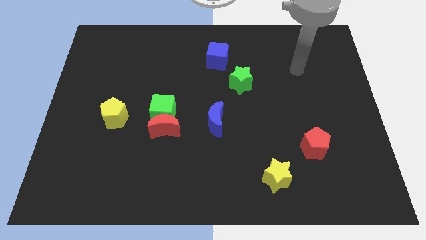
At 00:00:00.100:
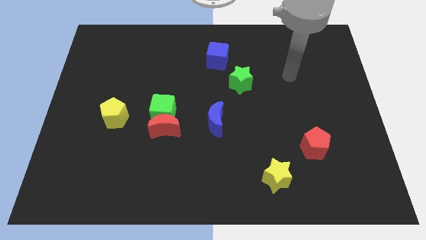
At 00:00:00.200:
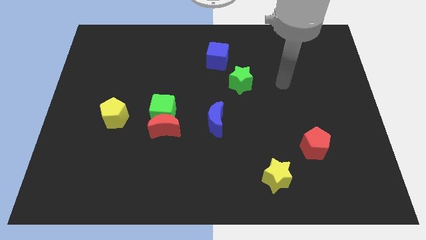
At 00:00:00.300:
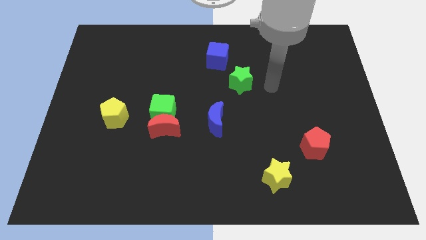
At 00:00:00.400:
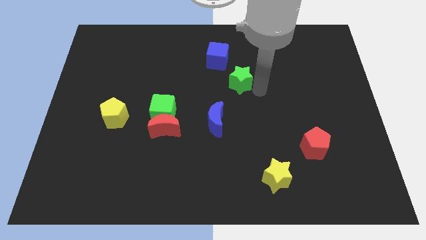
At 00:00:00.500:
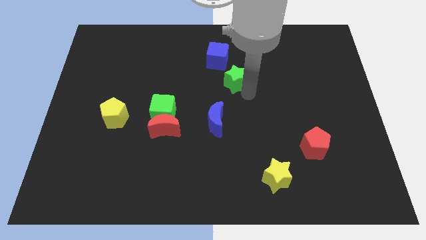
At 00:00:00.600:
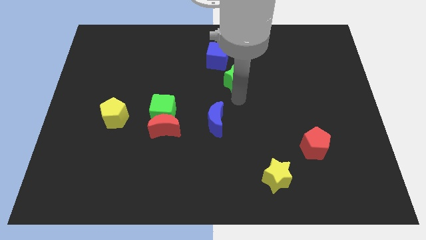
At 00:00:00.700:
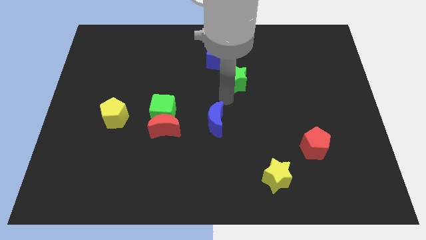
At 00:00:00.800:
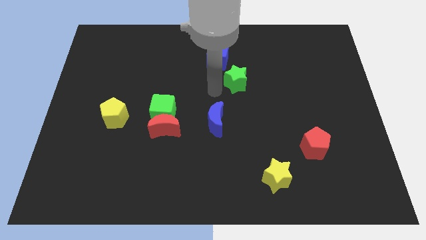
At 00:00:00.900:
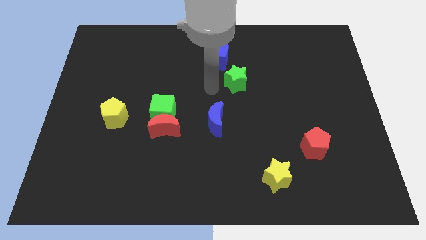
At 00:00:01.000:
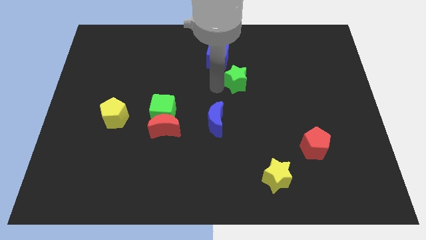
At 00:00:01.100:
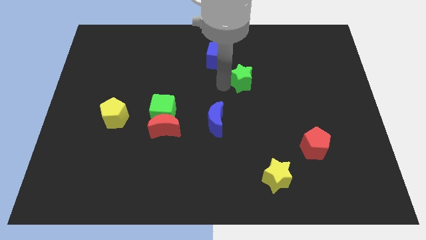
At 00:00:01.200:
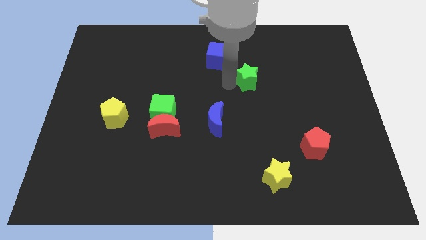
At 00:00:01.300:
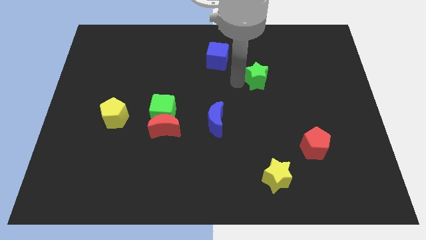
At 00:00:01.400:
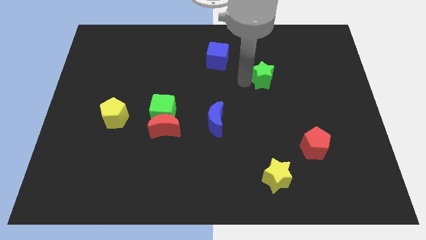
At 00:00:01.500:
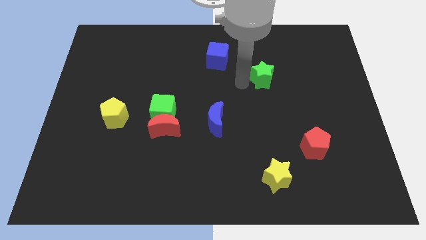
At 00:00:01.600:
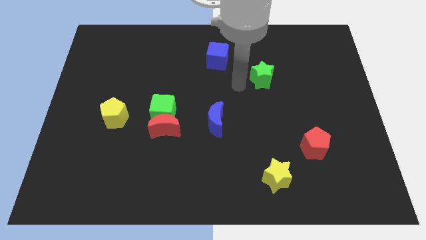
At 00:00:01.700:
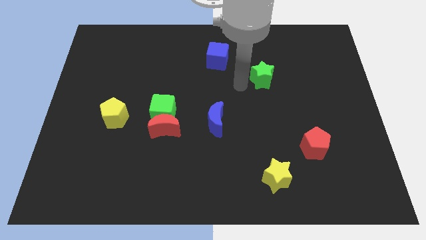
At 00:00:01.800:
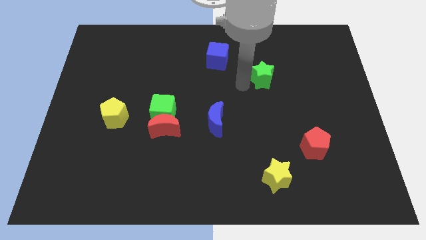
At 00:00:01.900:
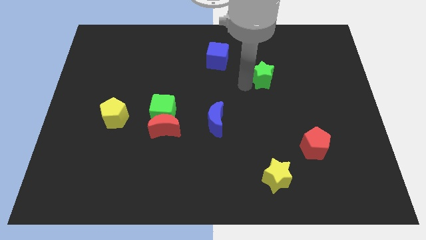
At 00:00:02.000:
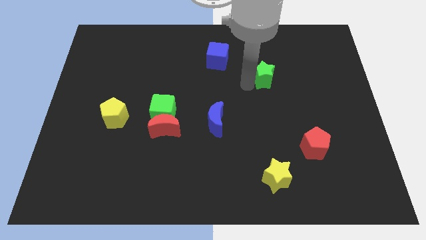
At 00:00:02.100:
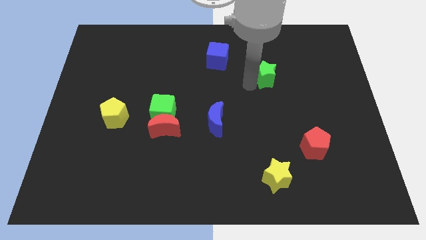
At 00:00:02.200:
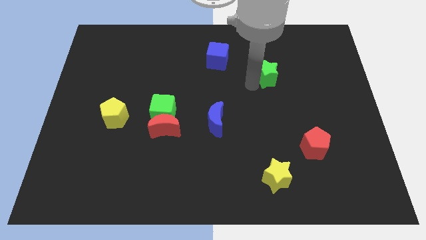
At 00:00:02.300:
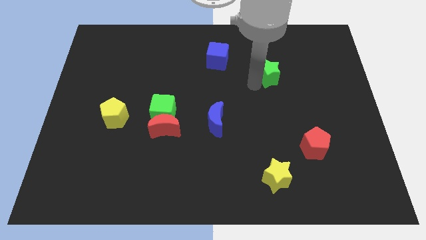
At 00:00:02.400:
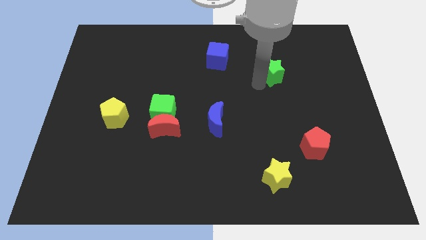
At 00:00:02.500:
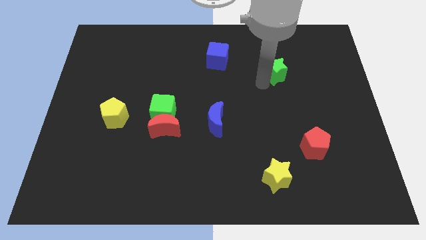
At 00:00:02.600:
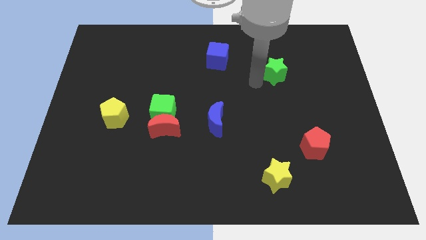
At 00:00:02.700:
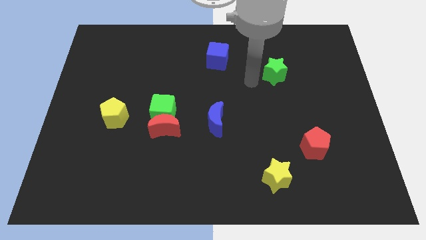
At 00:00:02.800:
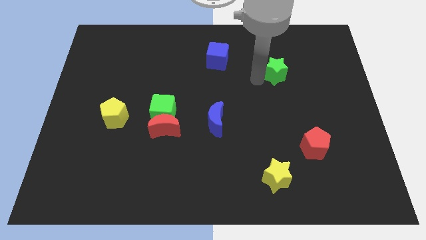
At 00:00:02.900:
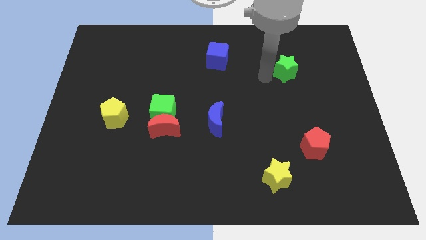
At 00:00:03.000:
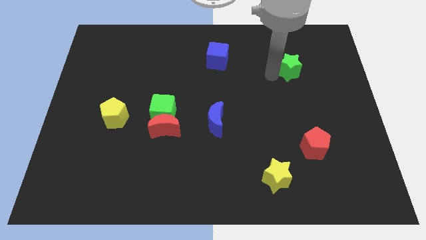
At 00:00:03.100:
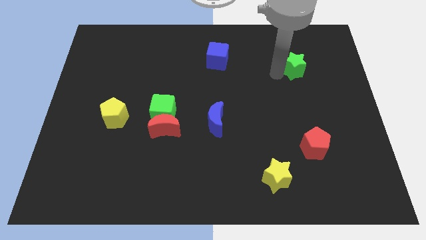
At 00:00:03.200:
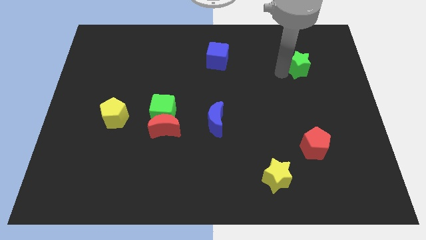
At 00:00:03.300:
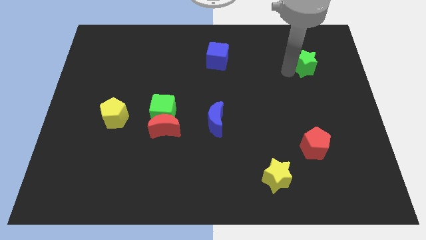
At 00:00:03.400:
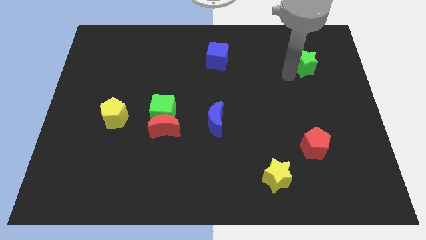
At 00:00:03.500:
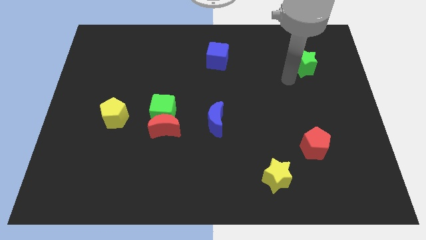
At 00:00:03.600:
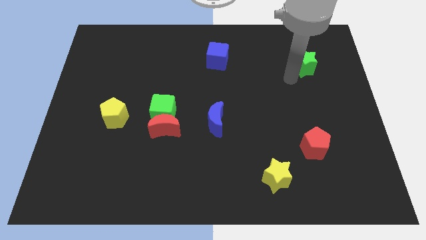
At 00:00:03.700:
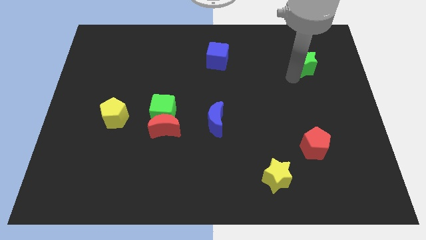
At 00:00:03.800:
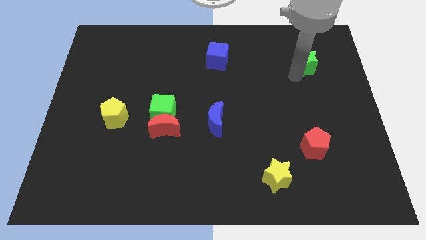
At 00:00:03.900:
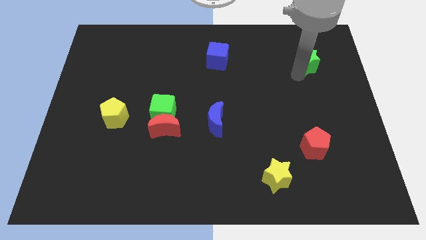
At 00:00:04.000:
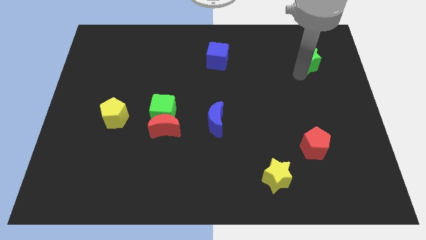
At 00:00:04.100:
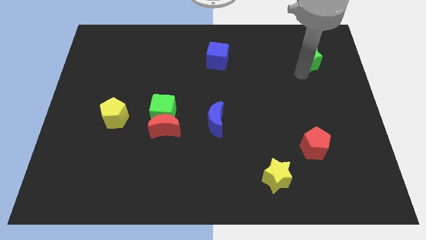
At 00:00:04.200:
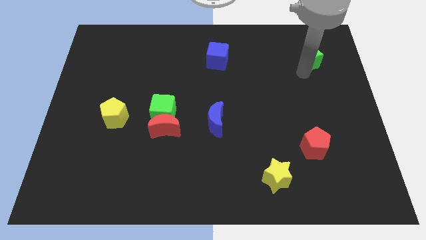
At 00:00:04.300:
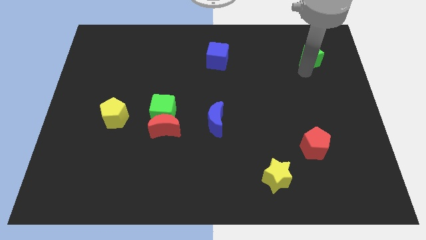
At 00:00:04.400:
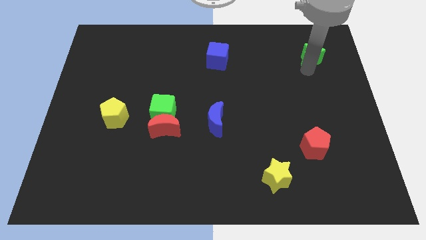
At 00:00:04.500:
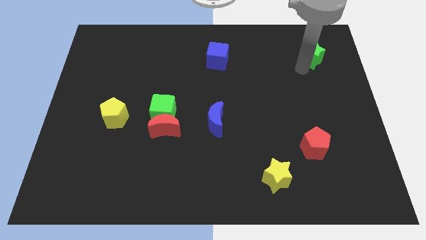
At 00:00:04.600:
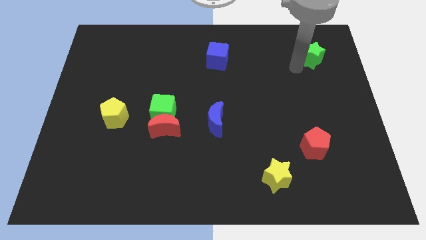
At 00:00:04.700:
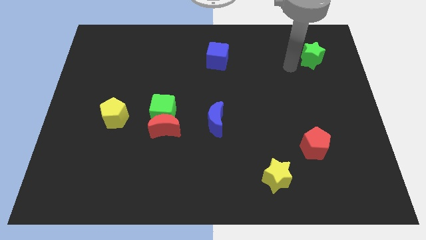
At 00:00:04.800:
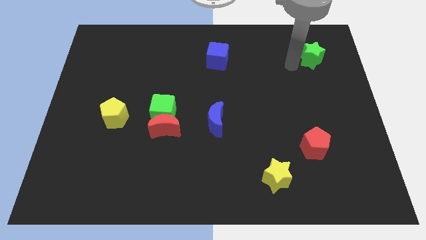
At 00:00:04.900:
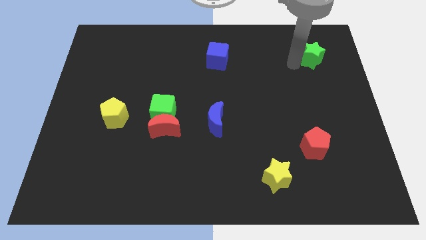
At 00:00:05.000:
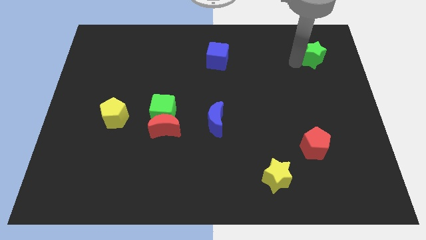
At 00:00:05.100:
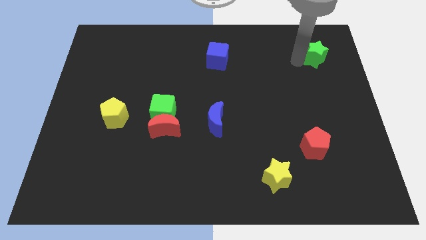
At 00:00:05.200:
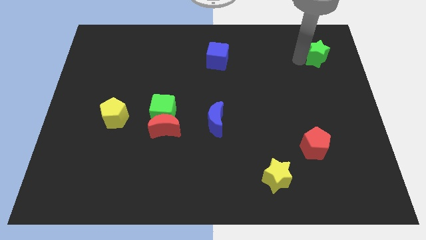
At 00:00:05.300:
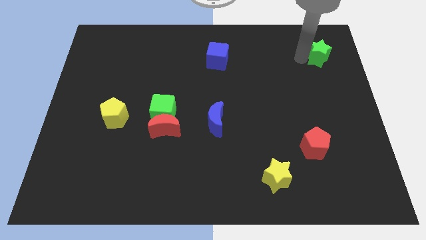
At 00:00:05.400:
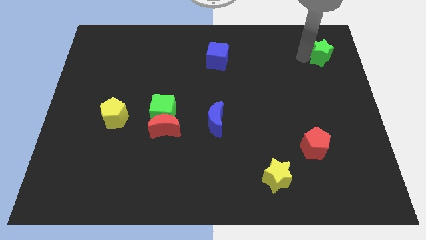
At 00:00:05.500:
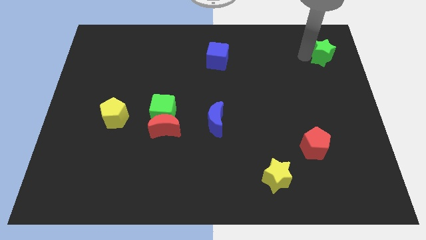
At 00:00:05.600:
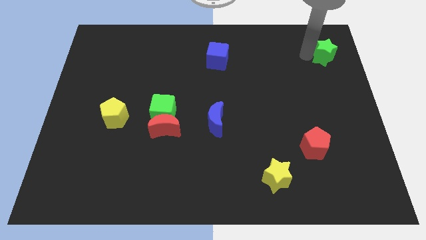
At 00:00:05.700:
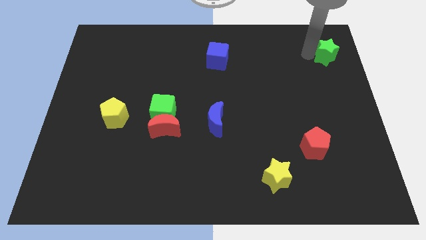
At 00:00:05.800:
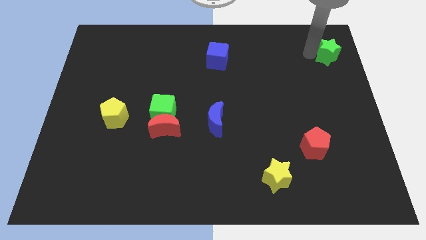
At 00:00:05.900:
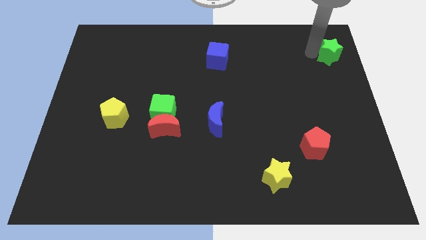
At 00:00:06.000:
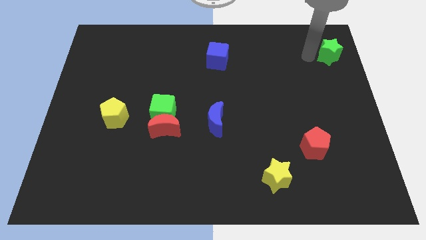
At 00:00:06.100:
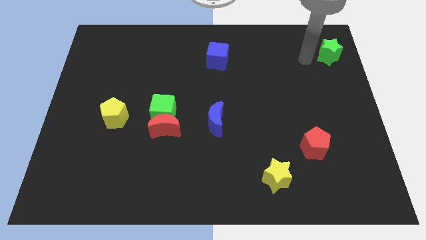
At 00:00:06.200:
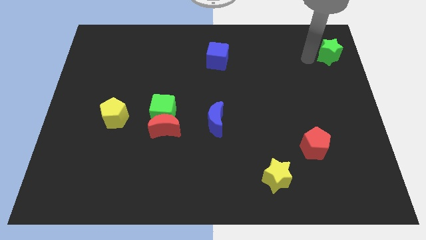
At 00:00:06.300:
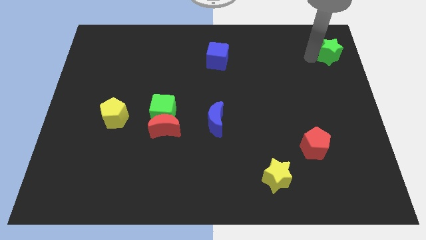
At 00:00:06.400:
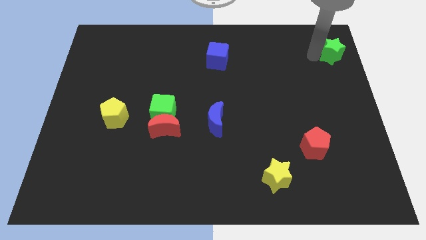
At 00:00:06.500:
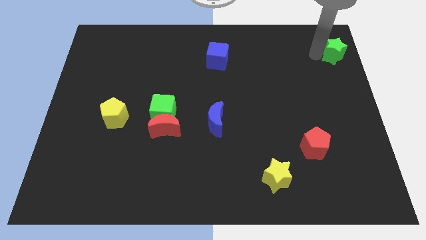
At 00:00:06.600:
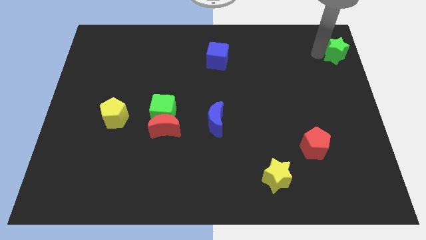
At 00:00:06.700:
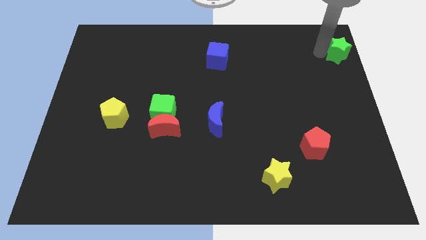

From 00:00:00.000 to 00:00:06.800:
move the green star to the upper right corner
